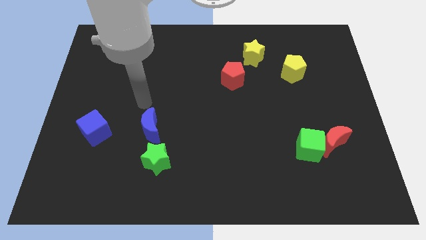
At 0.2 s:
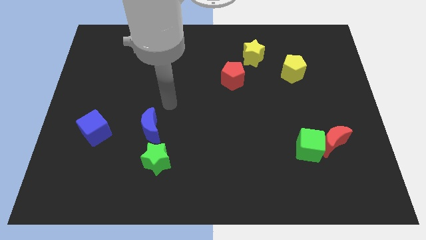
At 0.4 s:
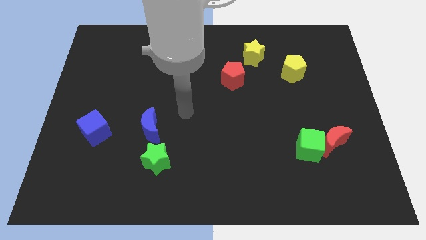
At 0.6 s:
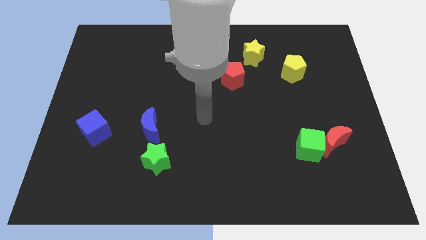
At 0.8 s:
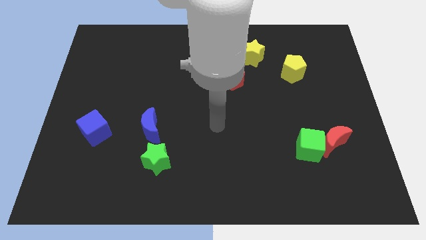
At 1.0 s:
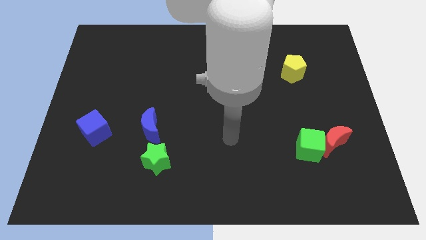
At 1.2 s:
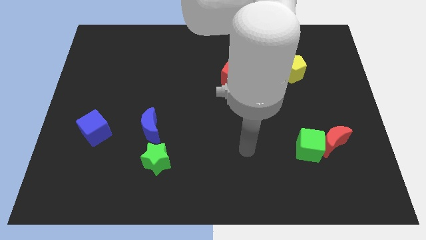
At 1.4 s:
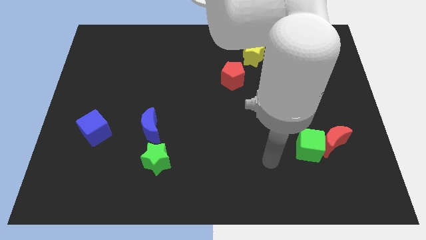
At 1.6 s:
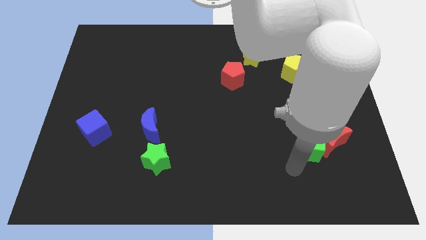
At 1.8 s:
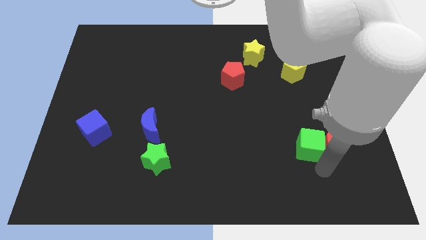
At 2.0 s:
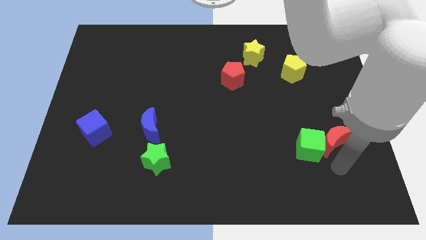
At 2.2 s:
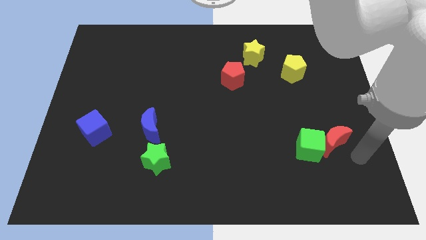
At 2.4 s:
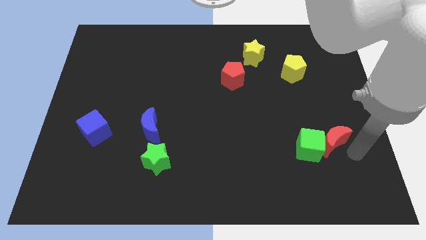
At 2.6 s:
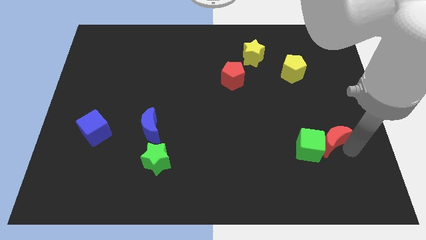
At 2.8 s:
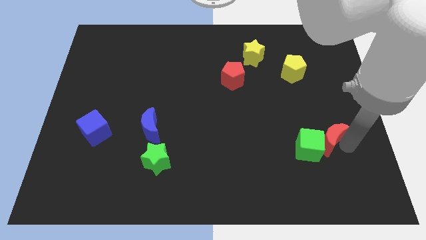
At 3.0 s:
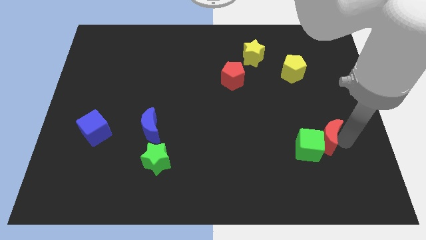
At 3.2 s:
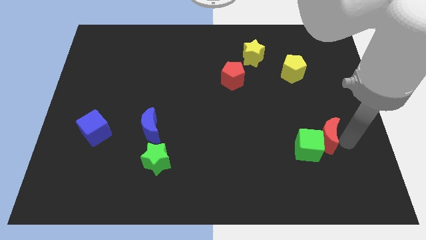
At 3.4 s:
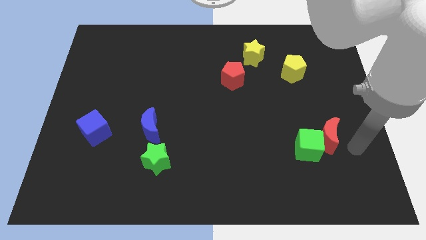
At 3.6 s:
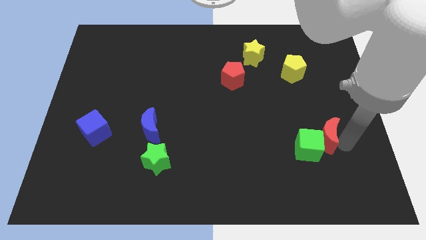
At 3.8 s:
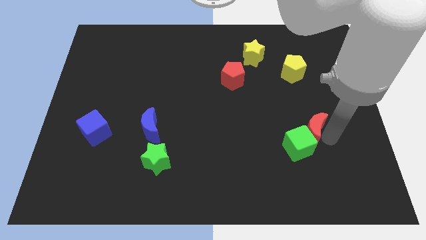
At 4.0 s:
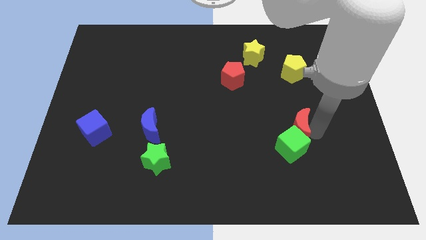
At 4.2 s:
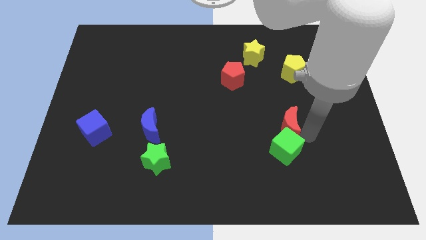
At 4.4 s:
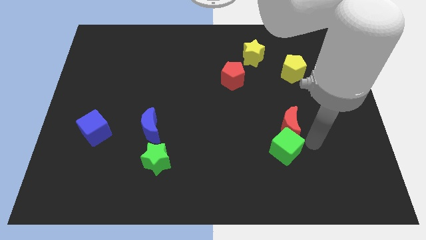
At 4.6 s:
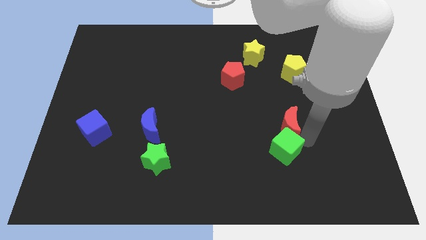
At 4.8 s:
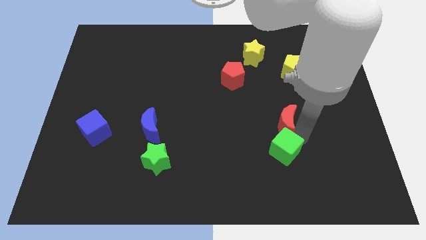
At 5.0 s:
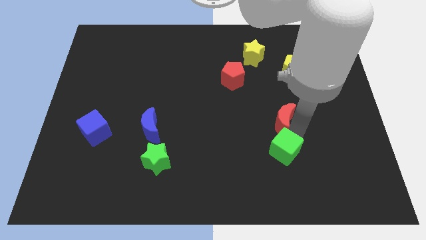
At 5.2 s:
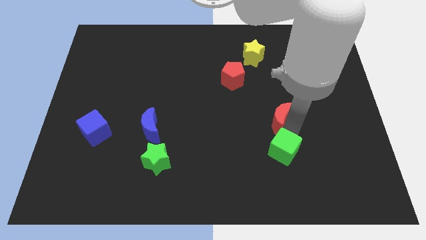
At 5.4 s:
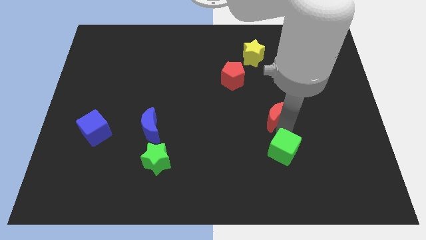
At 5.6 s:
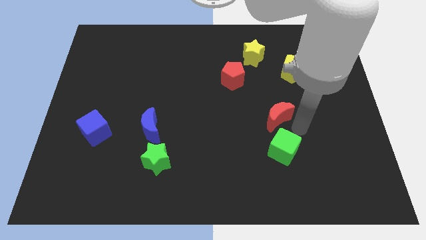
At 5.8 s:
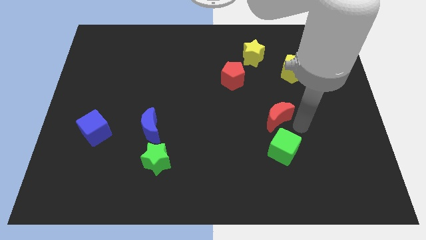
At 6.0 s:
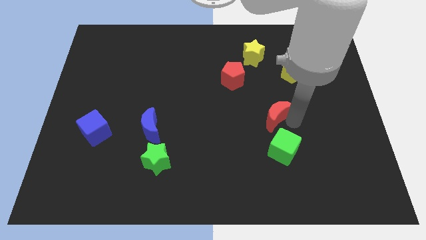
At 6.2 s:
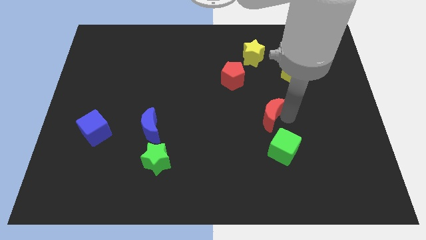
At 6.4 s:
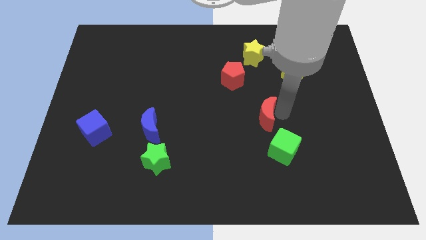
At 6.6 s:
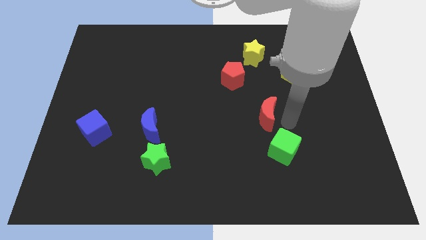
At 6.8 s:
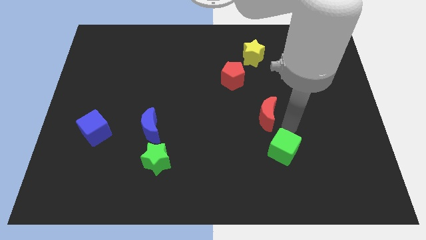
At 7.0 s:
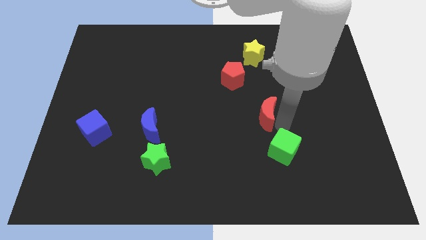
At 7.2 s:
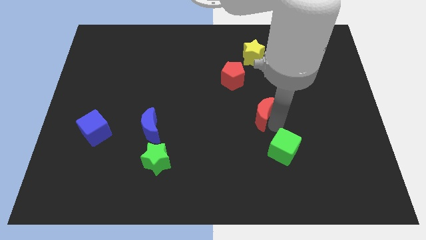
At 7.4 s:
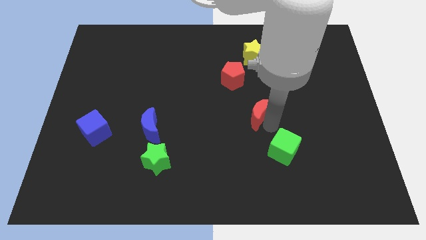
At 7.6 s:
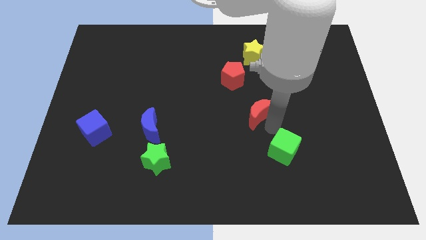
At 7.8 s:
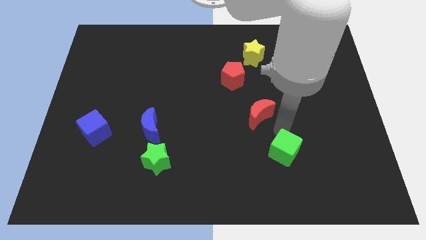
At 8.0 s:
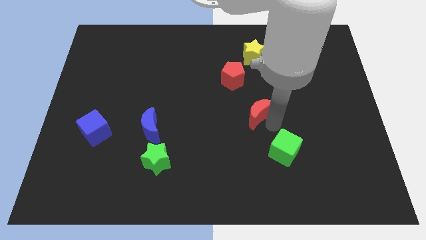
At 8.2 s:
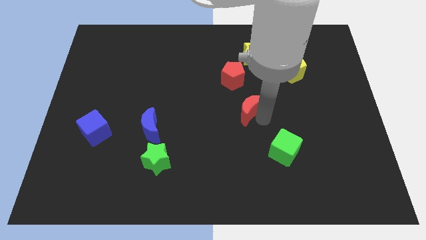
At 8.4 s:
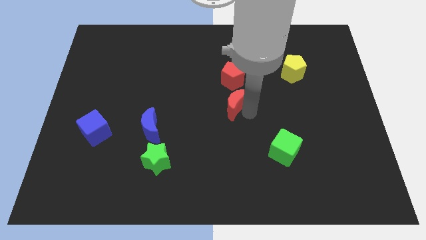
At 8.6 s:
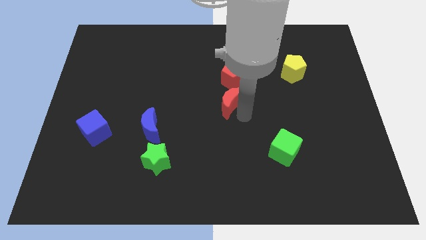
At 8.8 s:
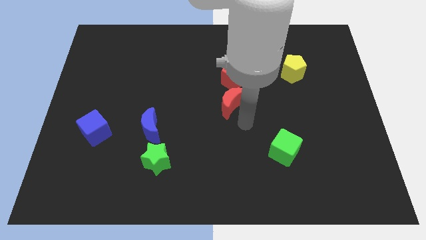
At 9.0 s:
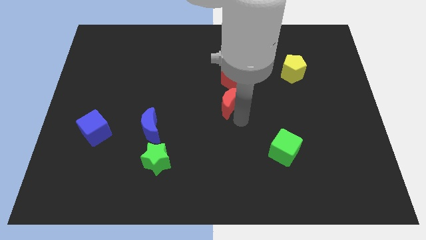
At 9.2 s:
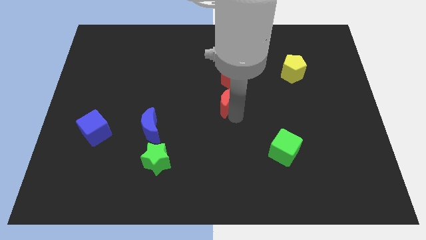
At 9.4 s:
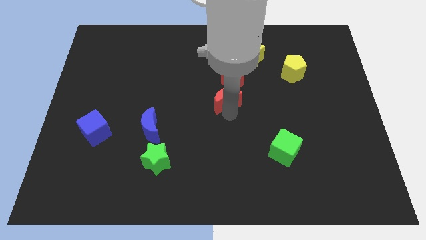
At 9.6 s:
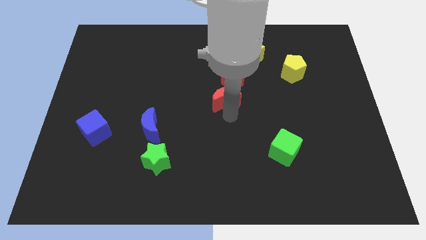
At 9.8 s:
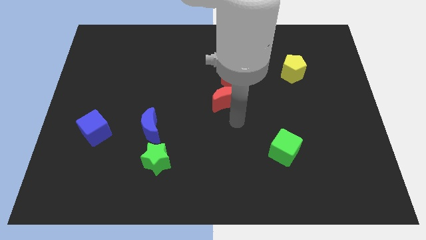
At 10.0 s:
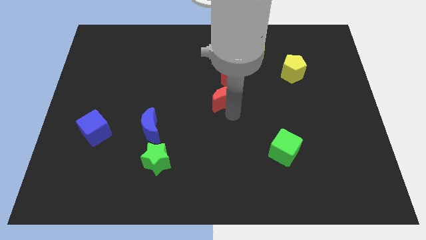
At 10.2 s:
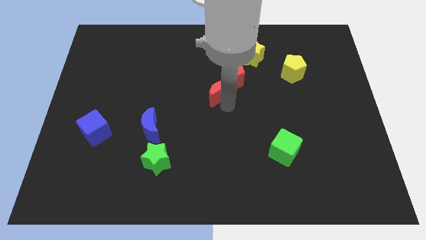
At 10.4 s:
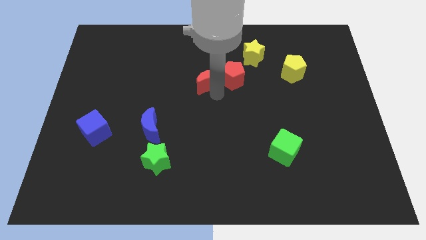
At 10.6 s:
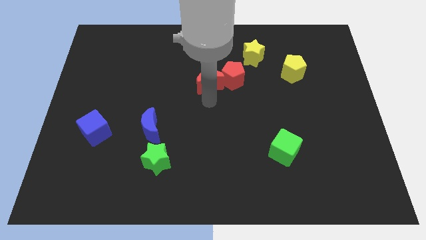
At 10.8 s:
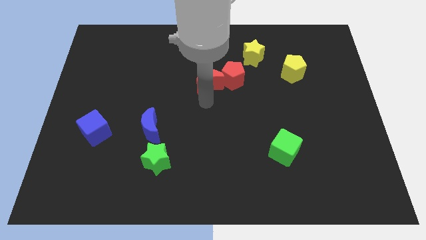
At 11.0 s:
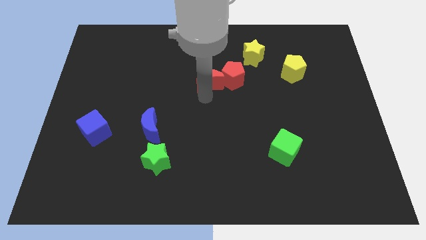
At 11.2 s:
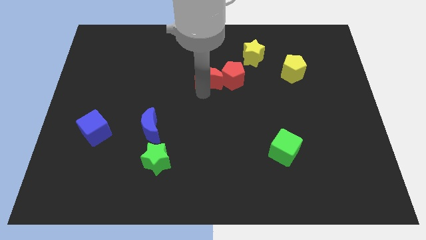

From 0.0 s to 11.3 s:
slide the red moon to the top left side of the red pentagon

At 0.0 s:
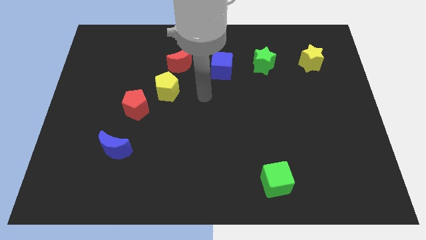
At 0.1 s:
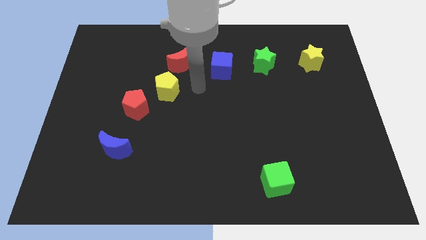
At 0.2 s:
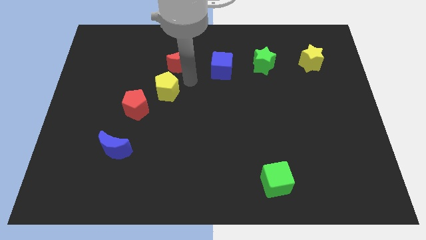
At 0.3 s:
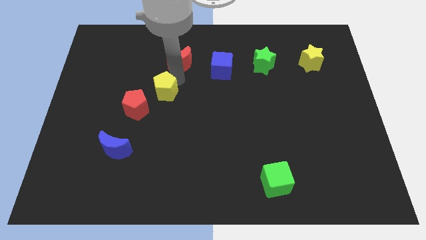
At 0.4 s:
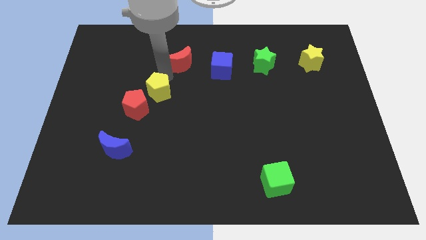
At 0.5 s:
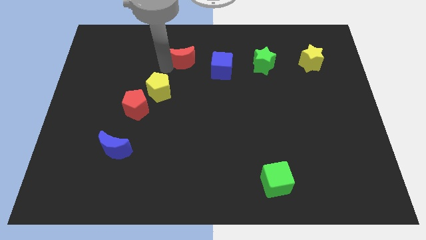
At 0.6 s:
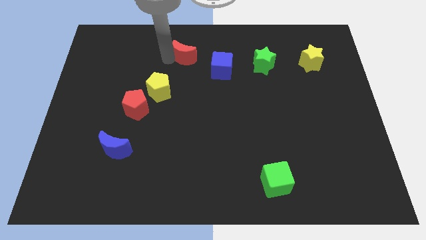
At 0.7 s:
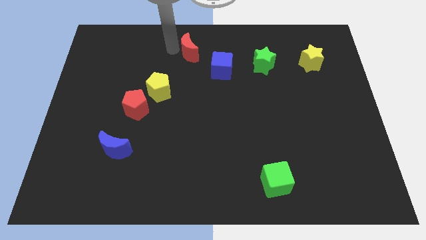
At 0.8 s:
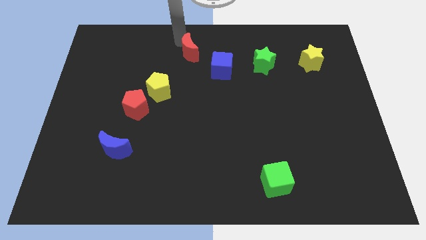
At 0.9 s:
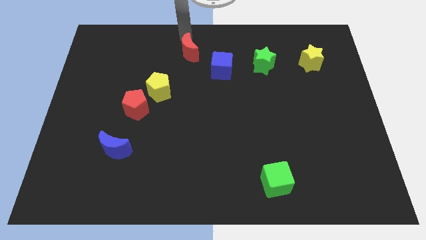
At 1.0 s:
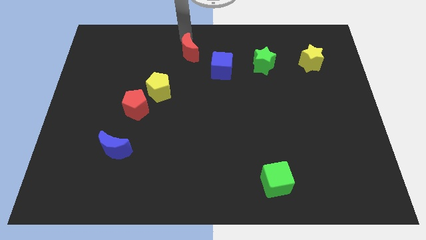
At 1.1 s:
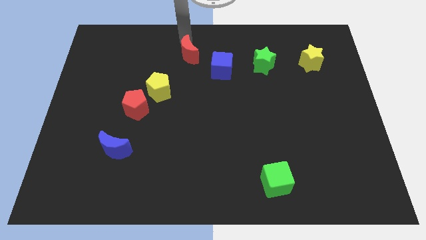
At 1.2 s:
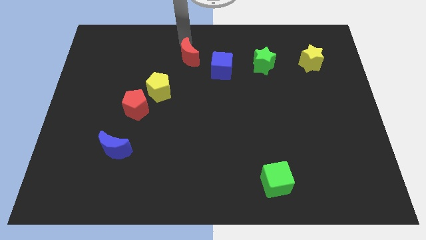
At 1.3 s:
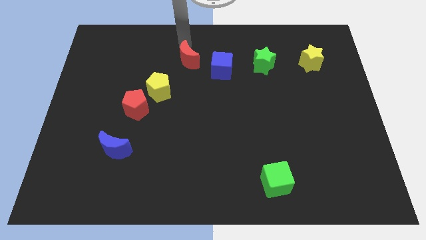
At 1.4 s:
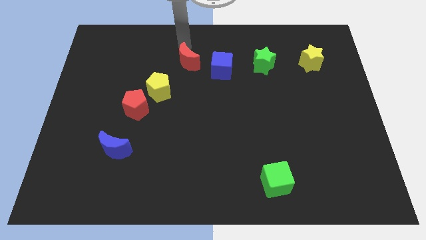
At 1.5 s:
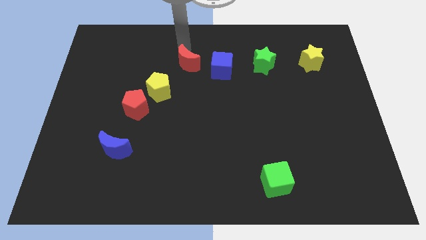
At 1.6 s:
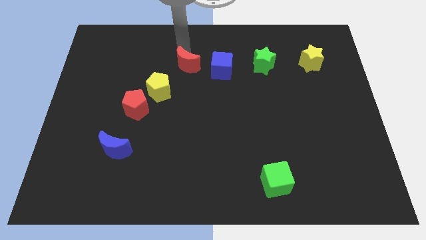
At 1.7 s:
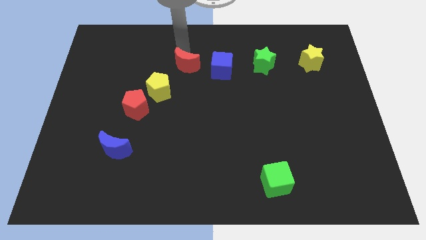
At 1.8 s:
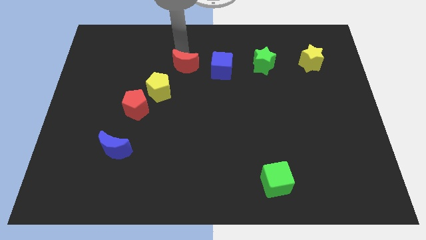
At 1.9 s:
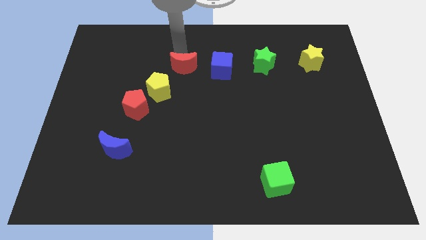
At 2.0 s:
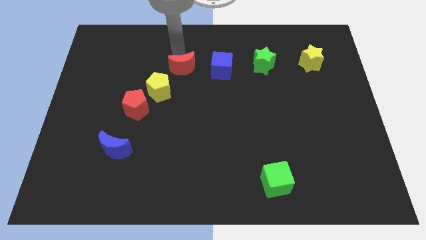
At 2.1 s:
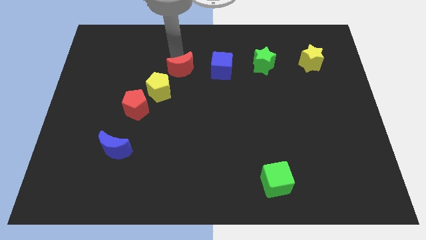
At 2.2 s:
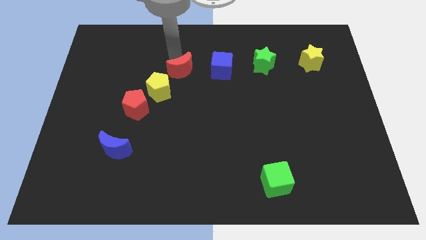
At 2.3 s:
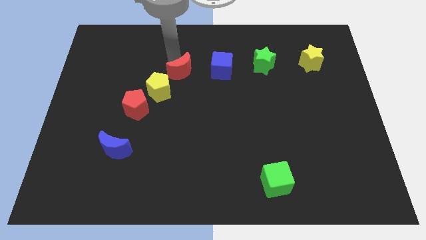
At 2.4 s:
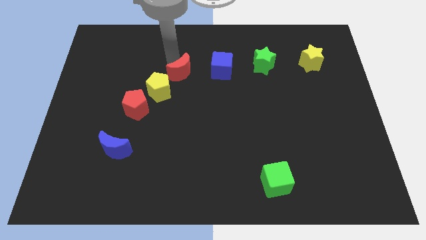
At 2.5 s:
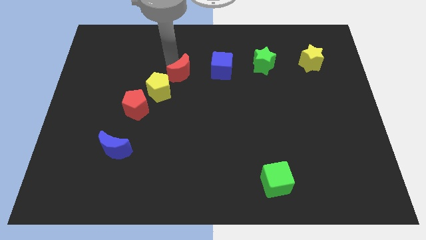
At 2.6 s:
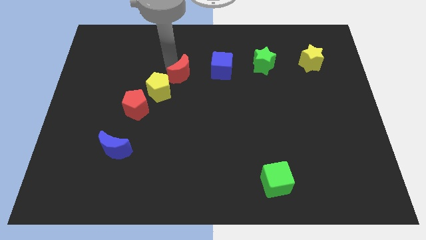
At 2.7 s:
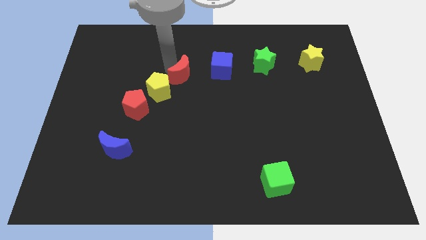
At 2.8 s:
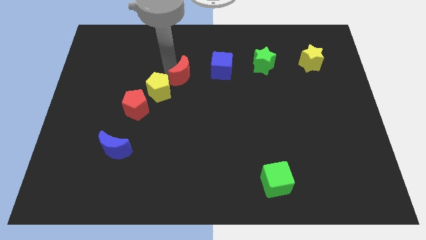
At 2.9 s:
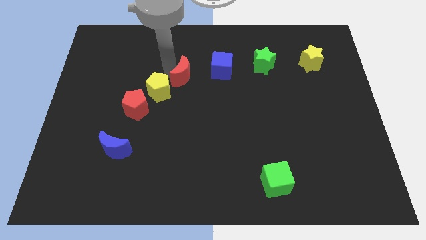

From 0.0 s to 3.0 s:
slide the red moon just right of the yellow pentagon
